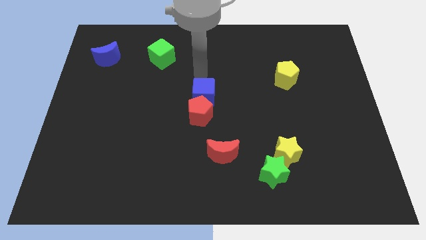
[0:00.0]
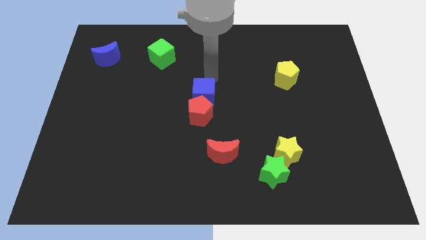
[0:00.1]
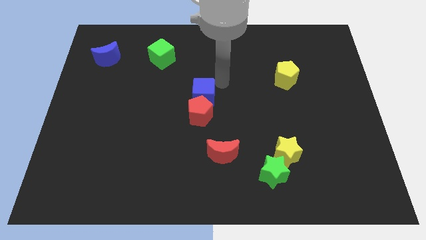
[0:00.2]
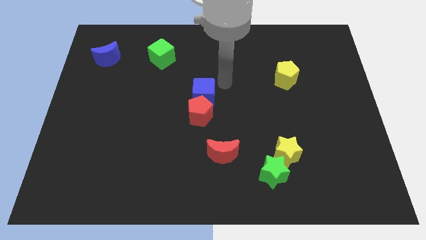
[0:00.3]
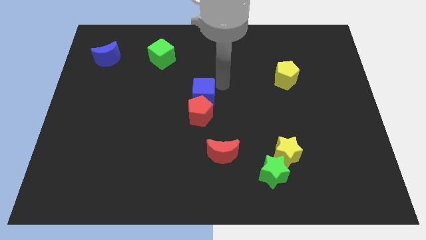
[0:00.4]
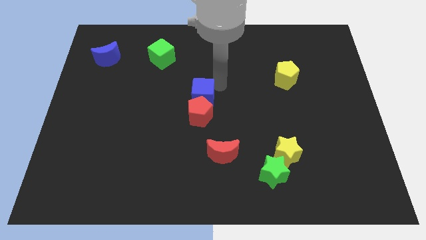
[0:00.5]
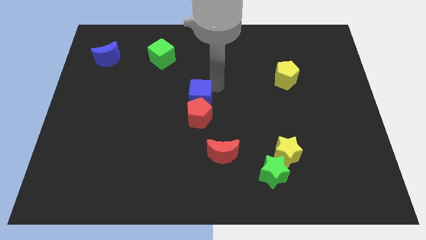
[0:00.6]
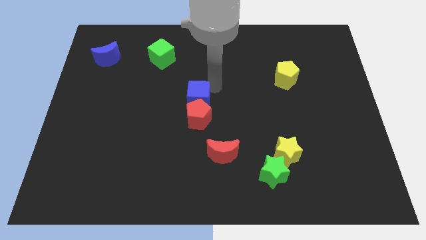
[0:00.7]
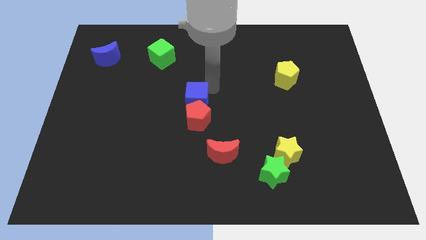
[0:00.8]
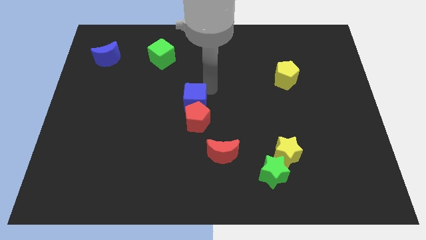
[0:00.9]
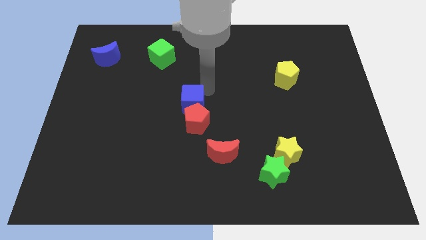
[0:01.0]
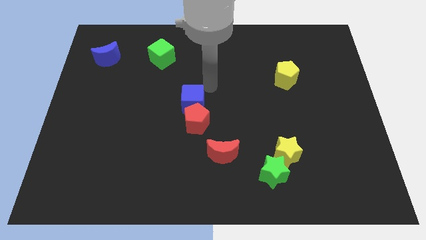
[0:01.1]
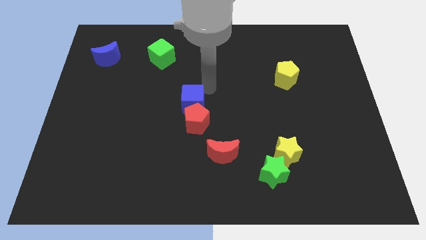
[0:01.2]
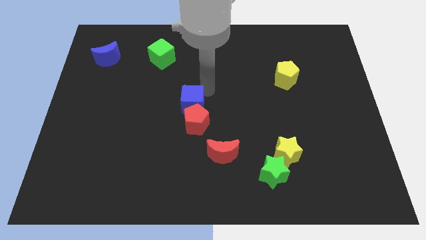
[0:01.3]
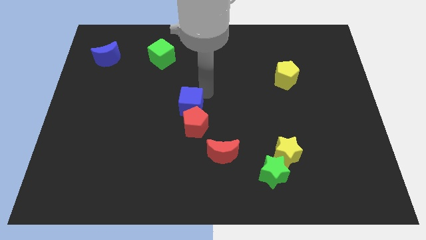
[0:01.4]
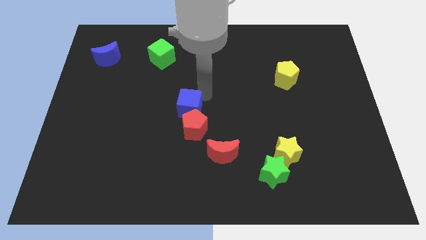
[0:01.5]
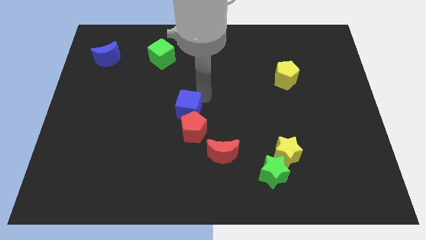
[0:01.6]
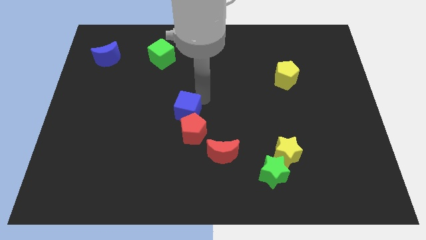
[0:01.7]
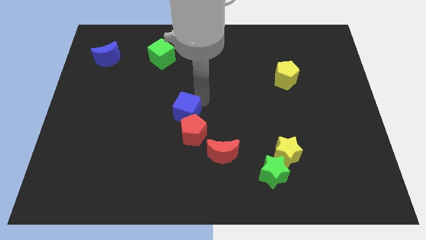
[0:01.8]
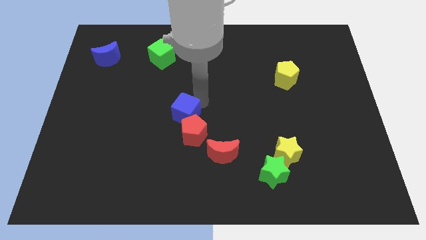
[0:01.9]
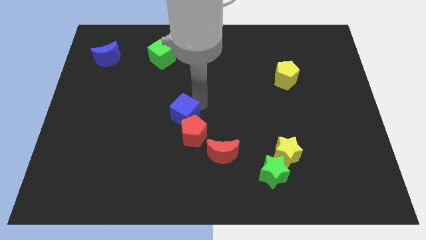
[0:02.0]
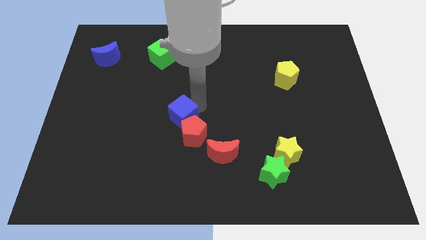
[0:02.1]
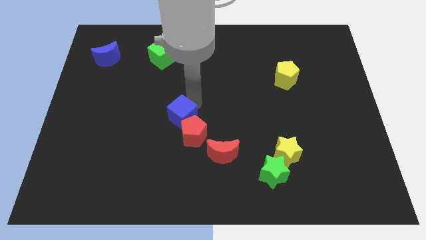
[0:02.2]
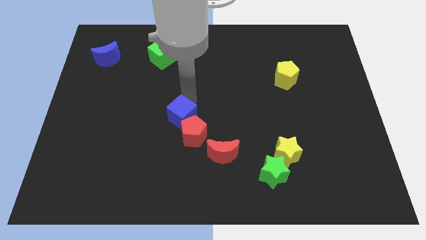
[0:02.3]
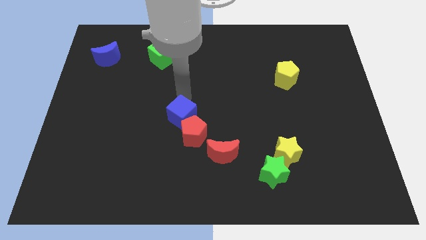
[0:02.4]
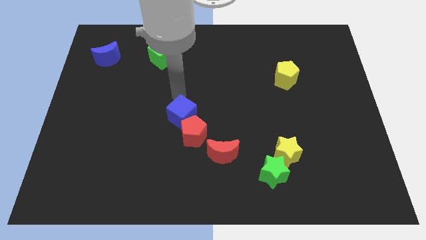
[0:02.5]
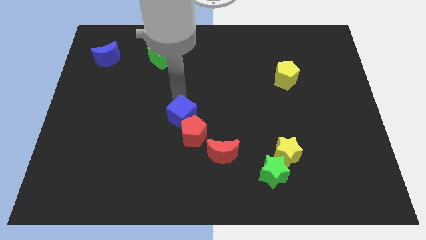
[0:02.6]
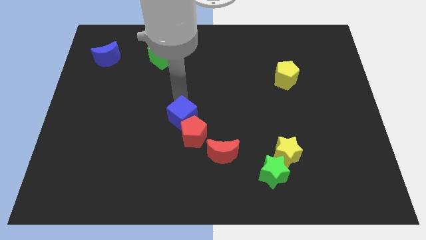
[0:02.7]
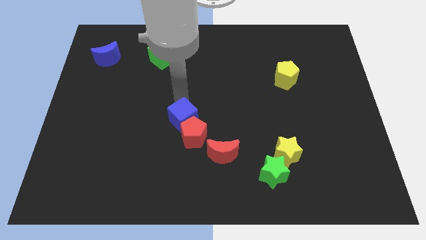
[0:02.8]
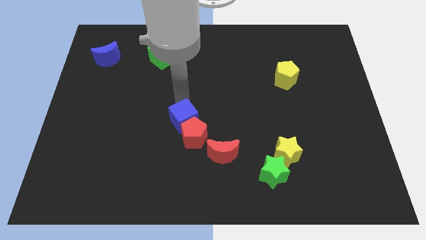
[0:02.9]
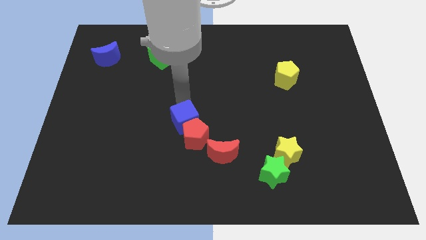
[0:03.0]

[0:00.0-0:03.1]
slide the blue cube a bit down

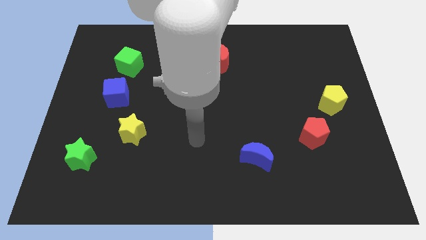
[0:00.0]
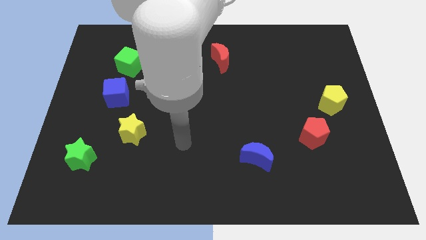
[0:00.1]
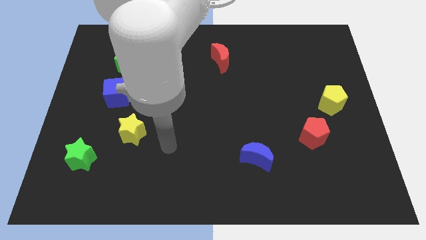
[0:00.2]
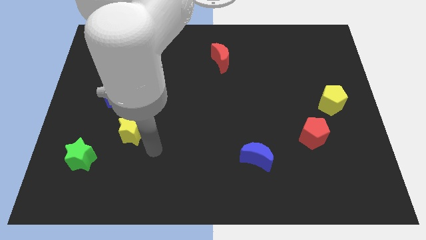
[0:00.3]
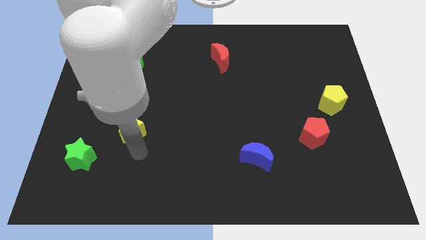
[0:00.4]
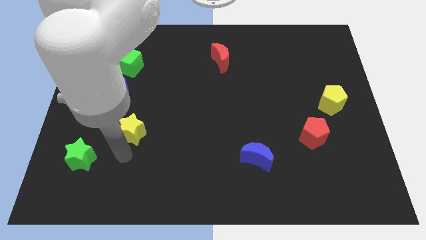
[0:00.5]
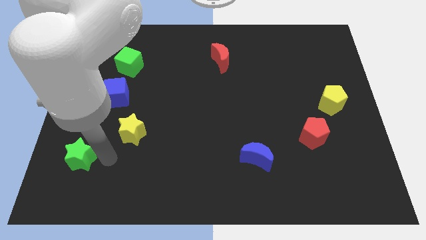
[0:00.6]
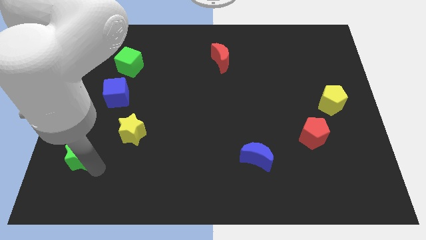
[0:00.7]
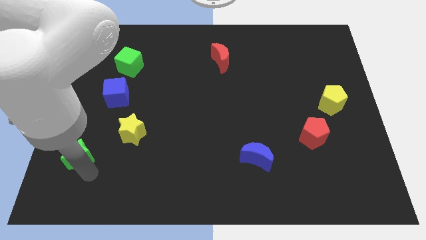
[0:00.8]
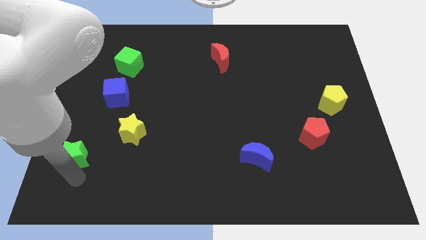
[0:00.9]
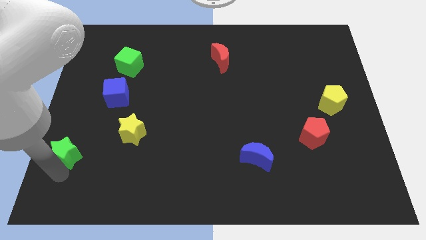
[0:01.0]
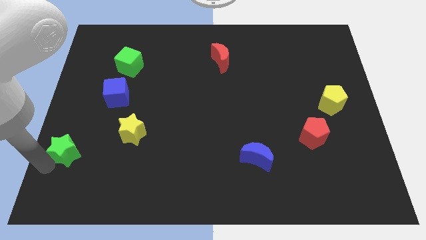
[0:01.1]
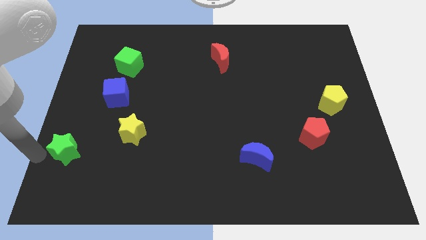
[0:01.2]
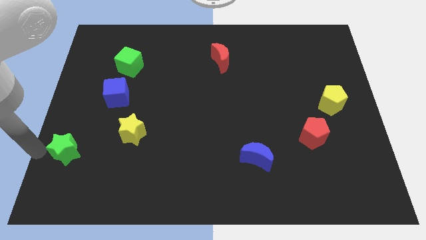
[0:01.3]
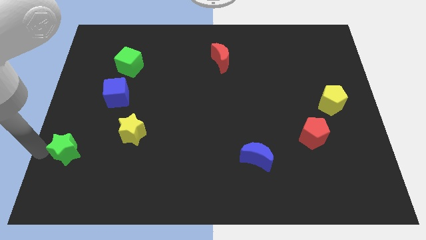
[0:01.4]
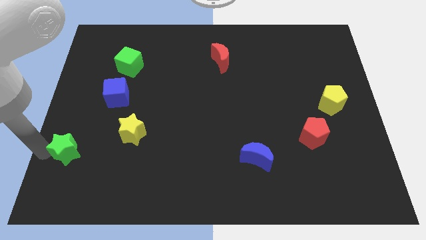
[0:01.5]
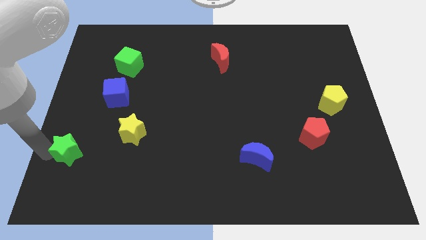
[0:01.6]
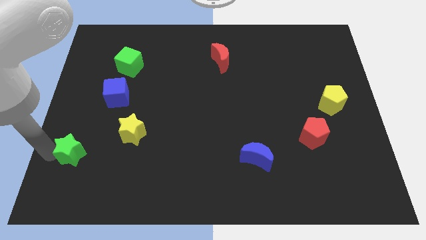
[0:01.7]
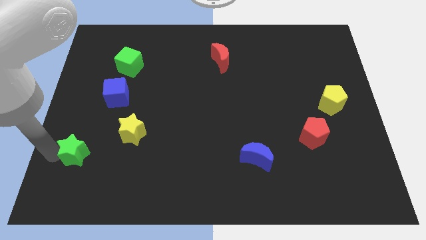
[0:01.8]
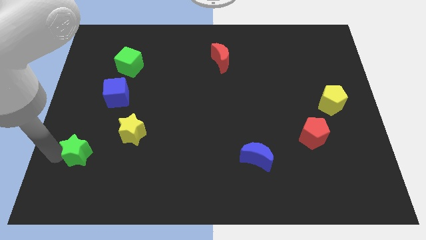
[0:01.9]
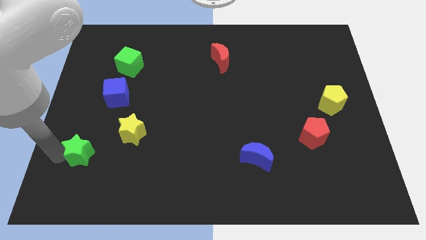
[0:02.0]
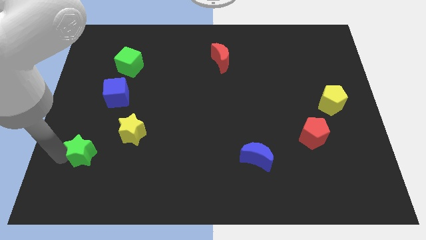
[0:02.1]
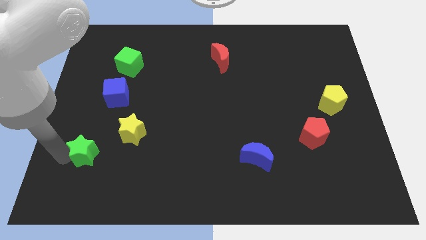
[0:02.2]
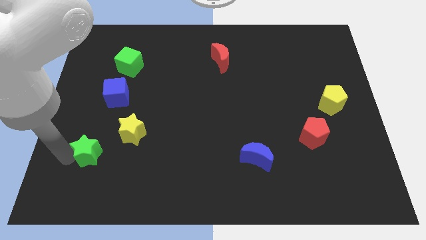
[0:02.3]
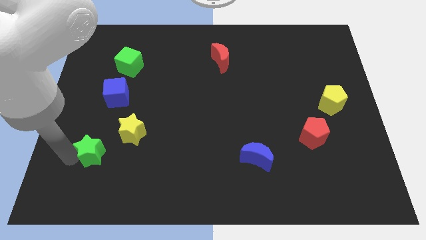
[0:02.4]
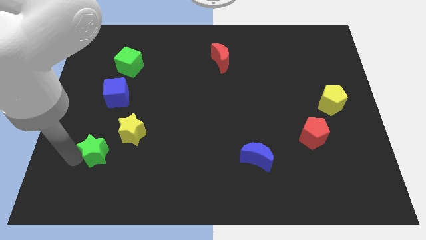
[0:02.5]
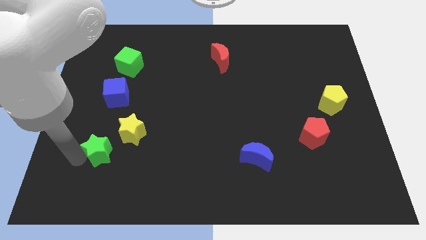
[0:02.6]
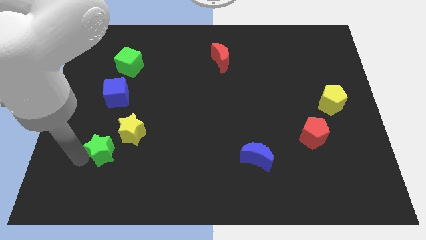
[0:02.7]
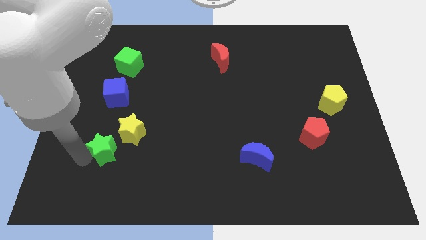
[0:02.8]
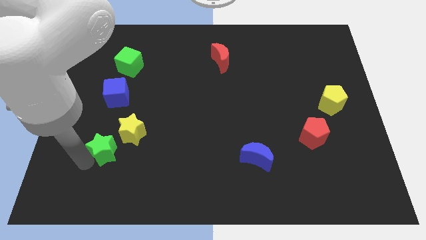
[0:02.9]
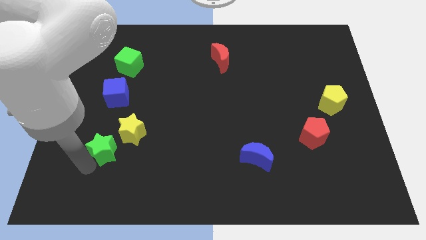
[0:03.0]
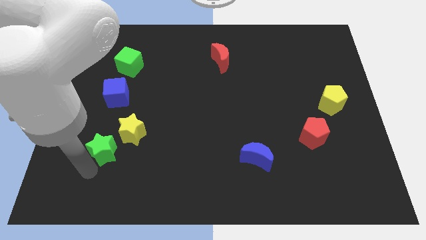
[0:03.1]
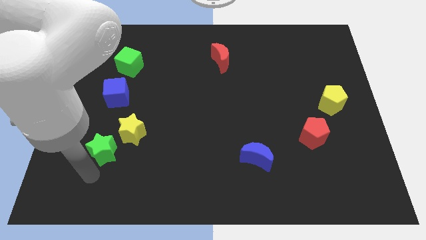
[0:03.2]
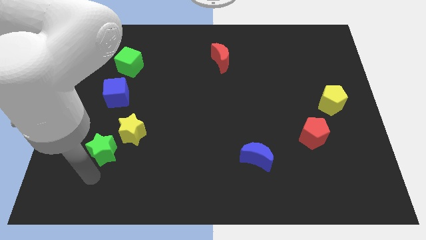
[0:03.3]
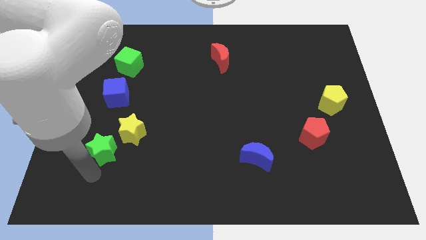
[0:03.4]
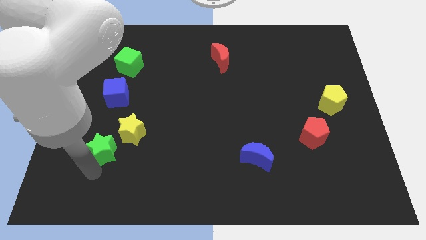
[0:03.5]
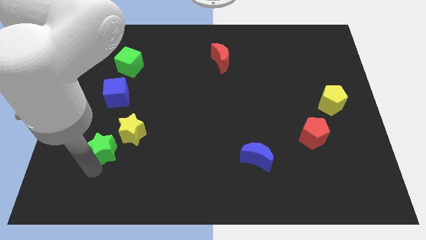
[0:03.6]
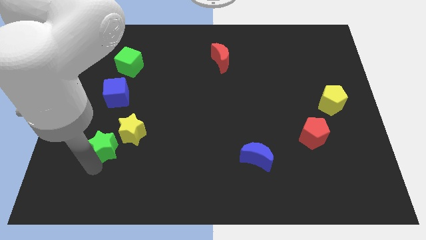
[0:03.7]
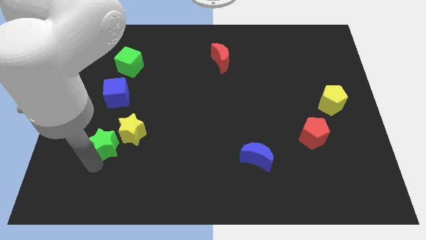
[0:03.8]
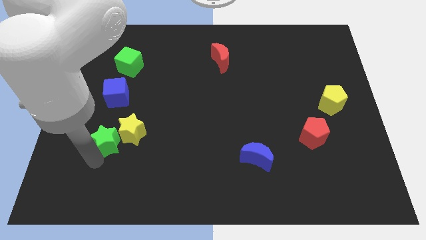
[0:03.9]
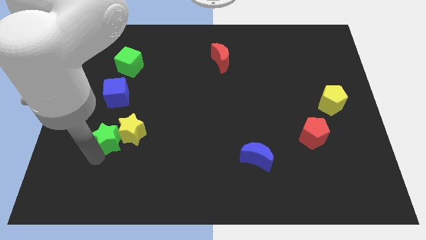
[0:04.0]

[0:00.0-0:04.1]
slightly move the green star up and then to the right

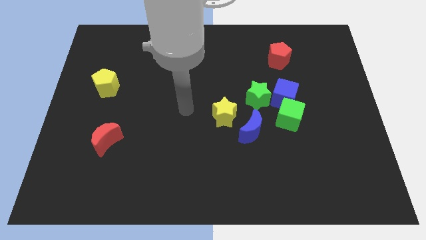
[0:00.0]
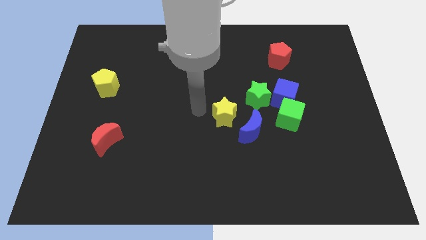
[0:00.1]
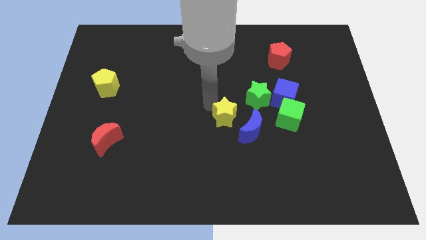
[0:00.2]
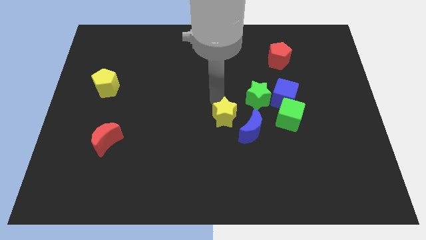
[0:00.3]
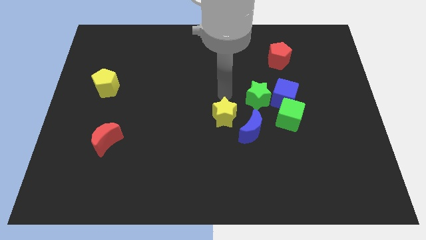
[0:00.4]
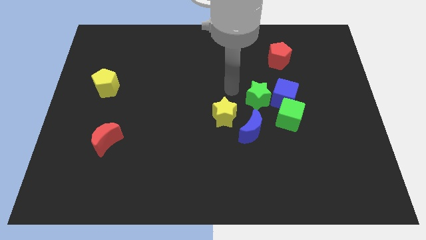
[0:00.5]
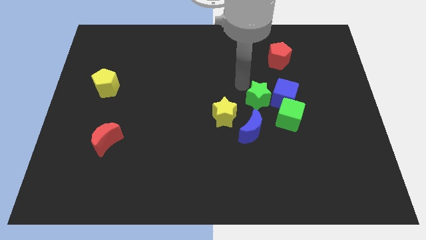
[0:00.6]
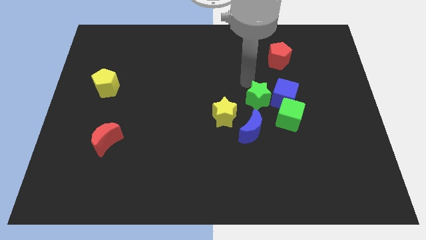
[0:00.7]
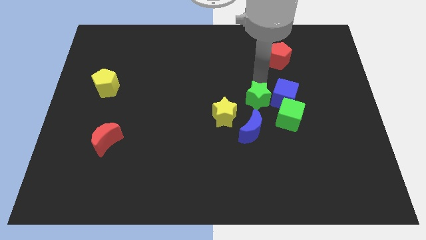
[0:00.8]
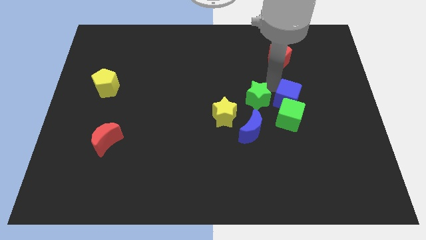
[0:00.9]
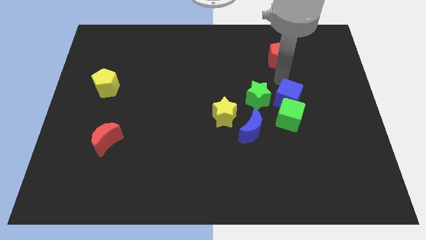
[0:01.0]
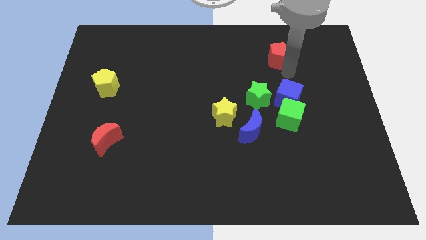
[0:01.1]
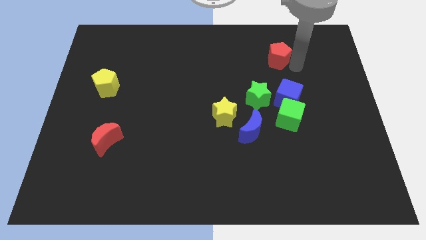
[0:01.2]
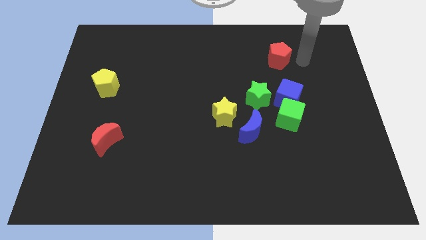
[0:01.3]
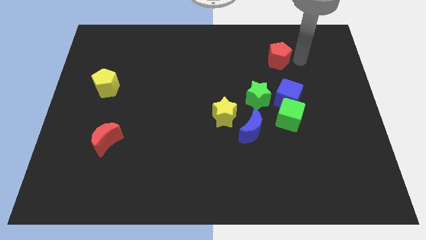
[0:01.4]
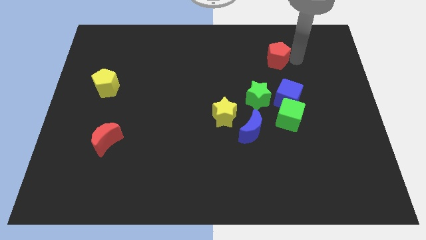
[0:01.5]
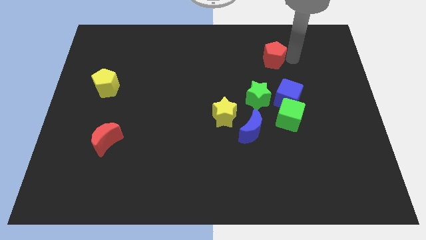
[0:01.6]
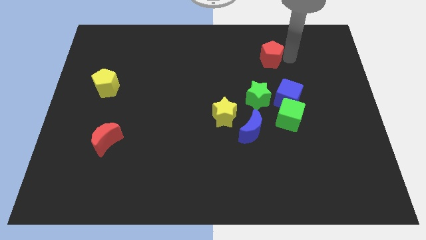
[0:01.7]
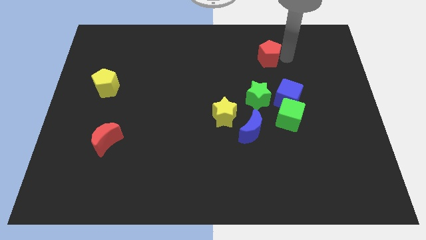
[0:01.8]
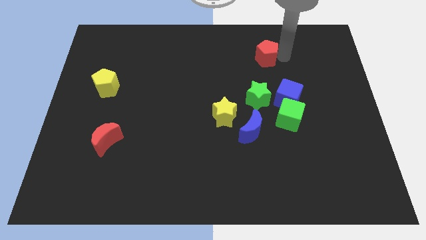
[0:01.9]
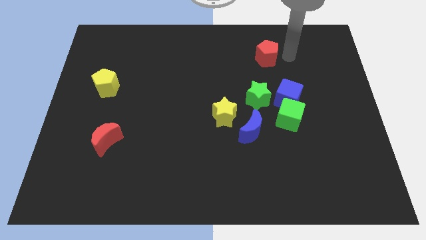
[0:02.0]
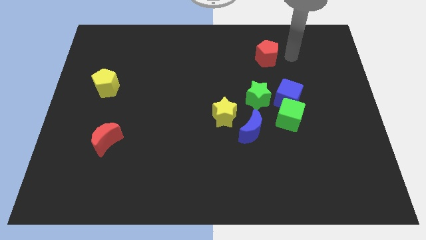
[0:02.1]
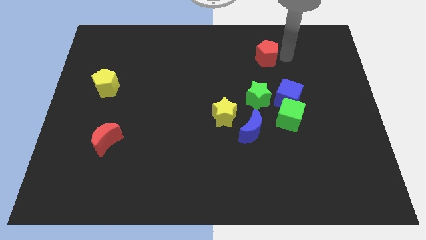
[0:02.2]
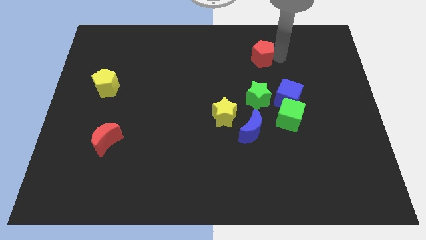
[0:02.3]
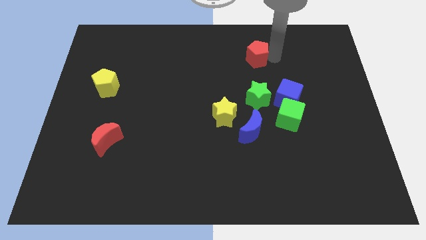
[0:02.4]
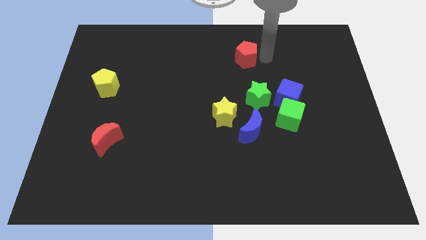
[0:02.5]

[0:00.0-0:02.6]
slide the red pentagon left slightly
